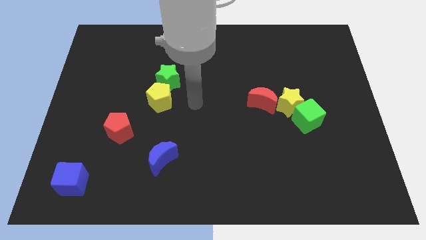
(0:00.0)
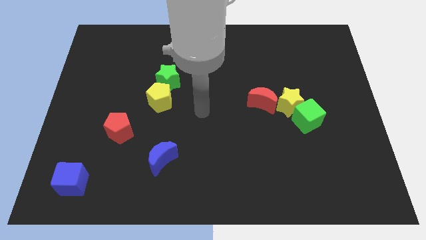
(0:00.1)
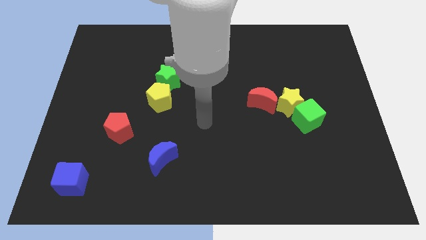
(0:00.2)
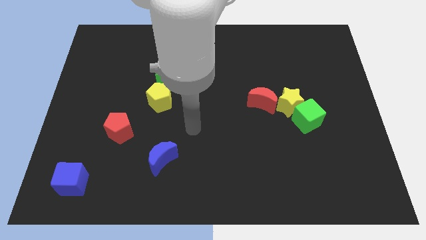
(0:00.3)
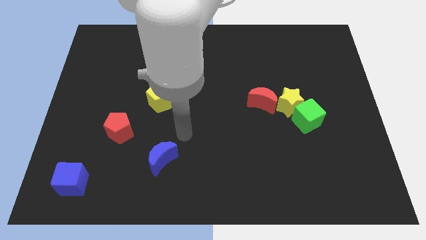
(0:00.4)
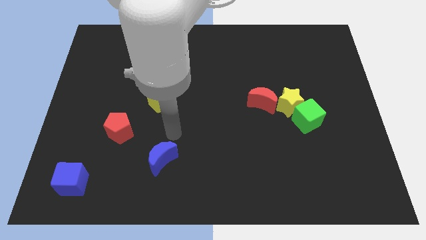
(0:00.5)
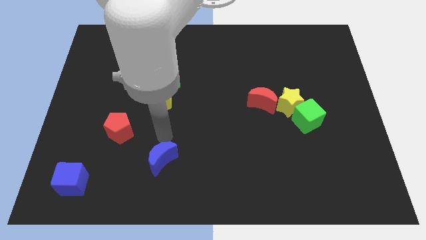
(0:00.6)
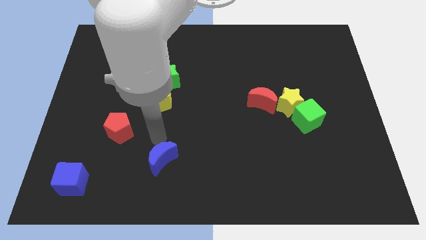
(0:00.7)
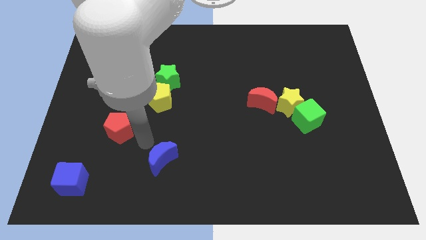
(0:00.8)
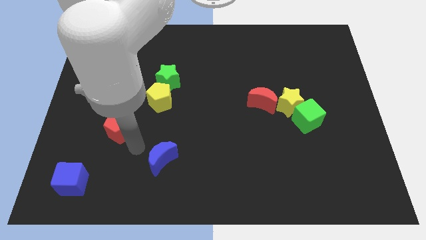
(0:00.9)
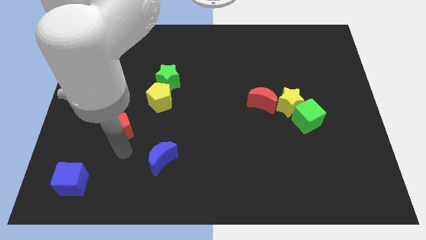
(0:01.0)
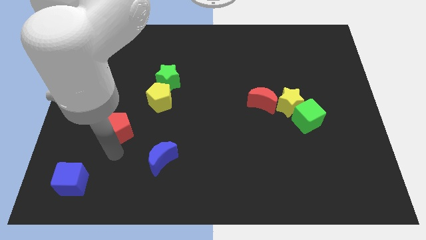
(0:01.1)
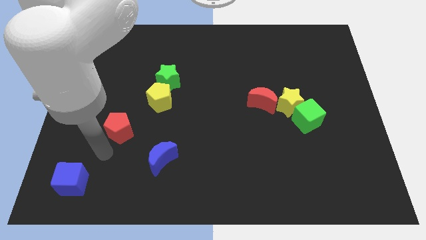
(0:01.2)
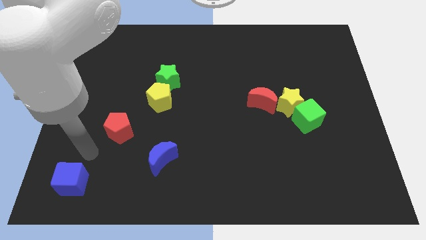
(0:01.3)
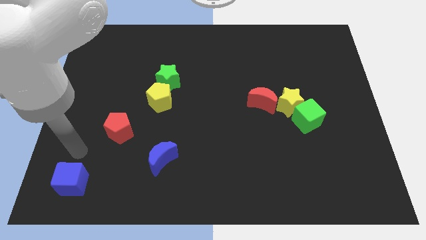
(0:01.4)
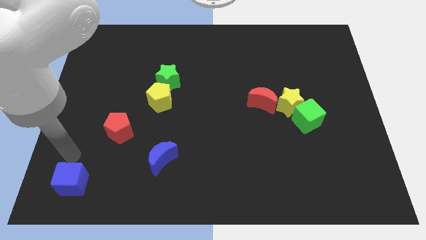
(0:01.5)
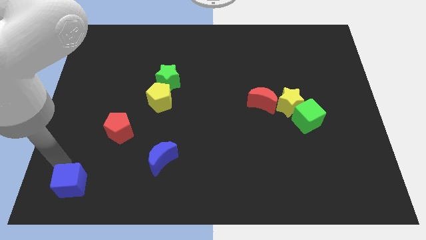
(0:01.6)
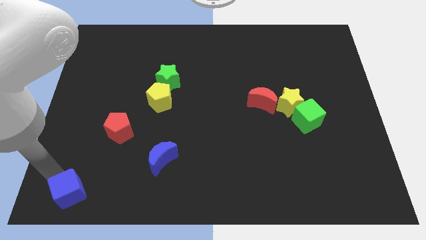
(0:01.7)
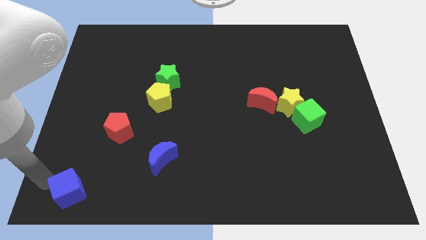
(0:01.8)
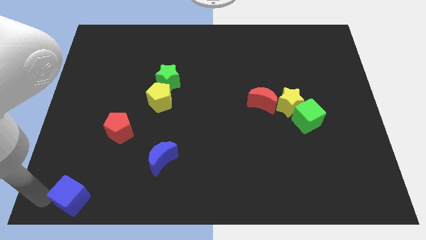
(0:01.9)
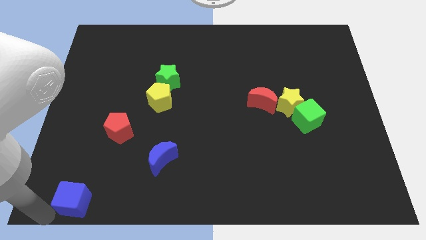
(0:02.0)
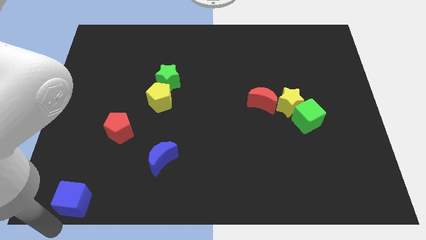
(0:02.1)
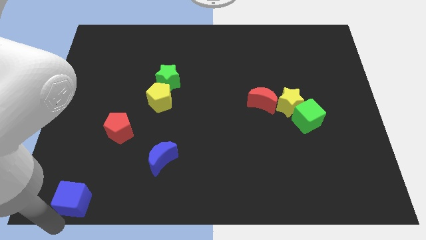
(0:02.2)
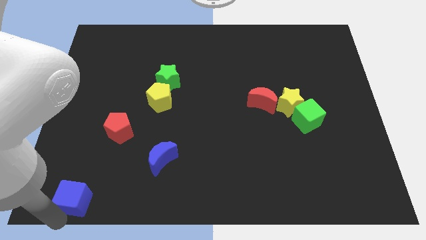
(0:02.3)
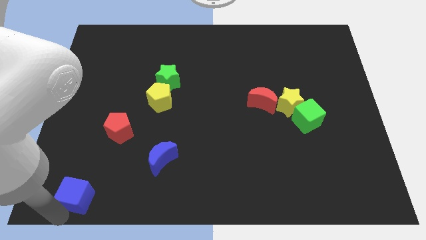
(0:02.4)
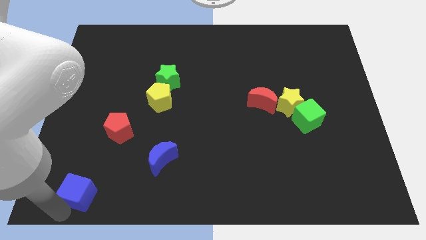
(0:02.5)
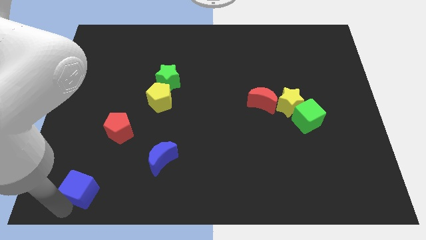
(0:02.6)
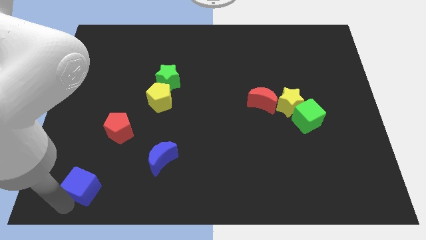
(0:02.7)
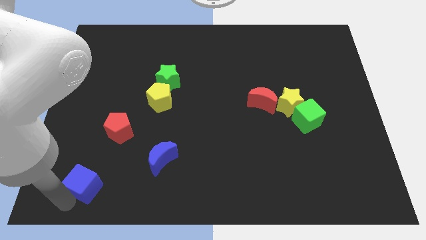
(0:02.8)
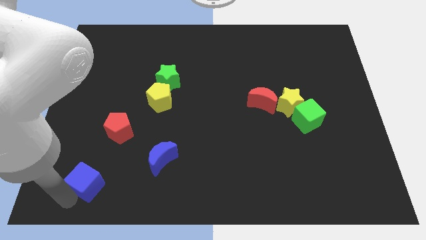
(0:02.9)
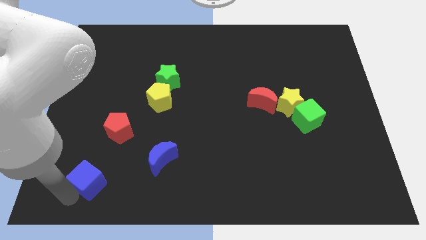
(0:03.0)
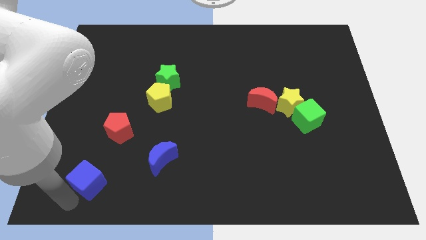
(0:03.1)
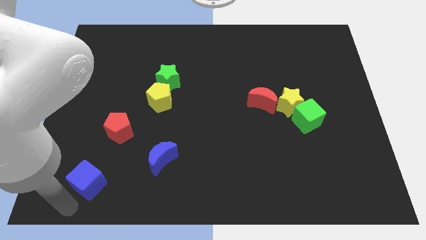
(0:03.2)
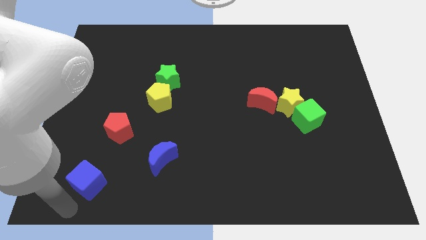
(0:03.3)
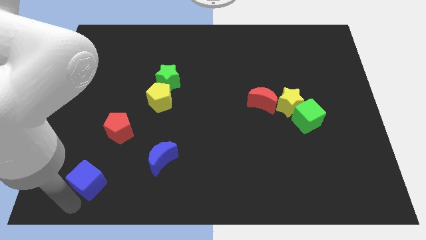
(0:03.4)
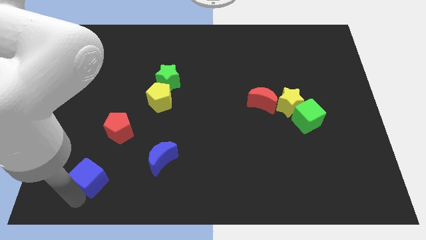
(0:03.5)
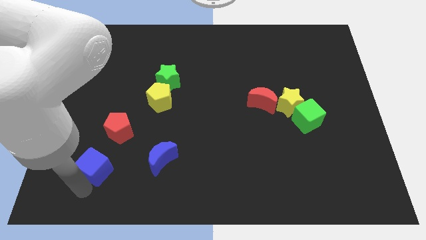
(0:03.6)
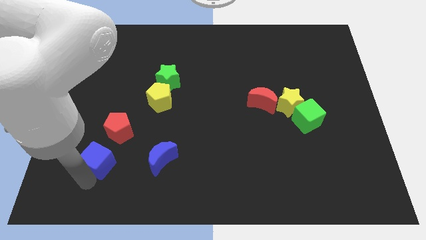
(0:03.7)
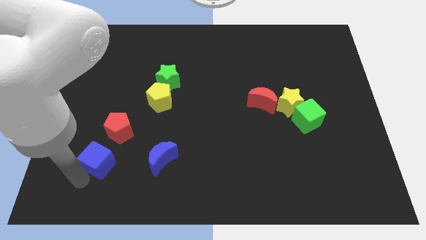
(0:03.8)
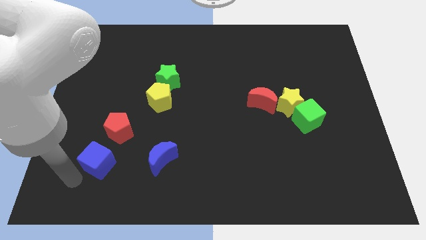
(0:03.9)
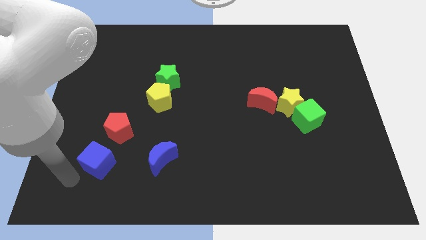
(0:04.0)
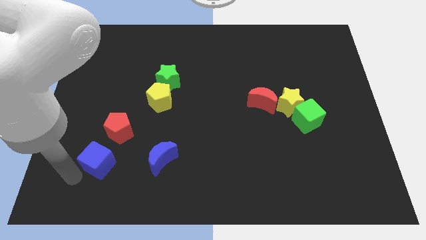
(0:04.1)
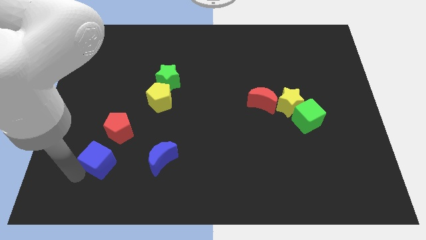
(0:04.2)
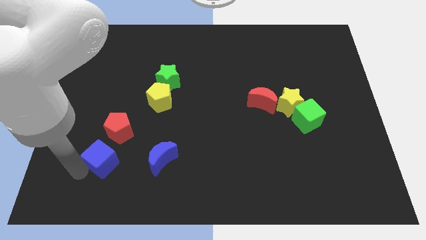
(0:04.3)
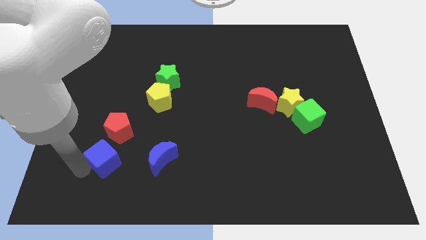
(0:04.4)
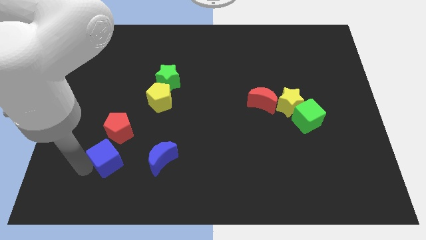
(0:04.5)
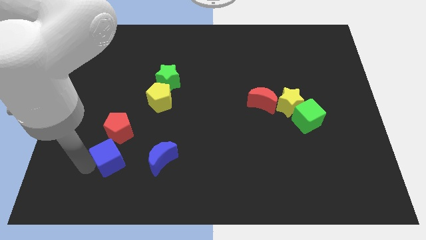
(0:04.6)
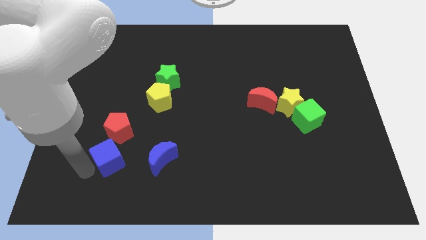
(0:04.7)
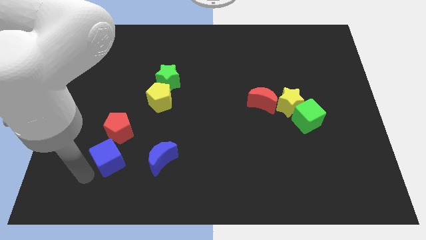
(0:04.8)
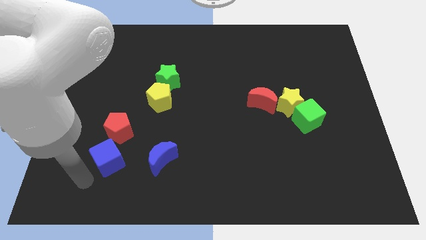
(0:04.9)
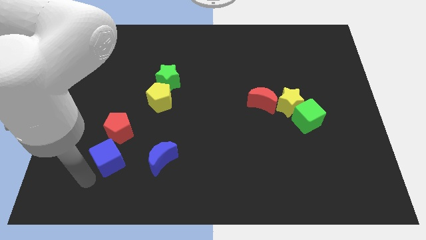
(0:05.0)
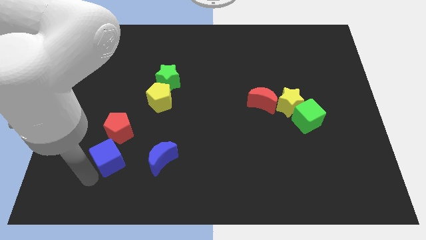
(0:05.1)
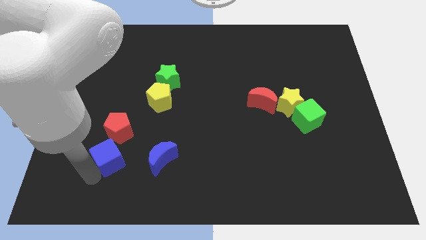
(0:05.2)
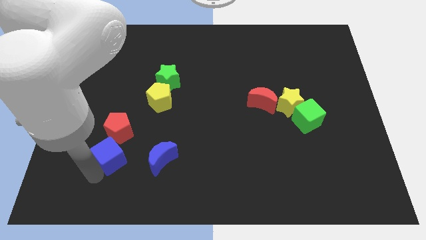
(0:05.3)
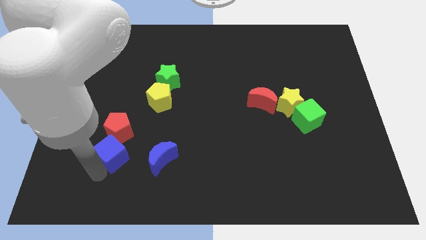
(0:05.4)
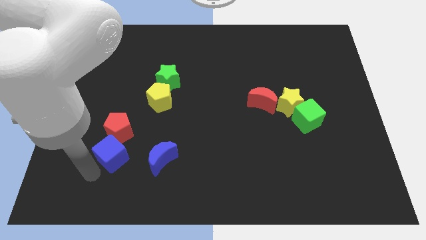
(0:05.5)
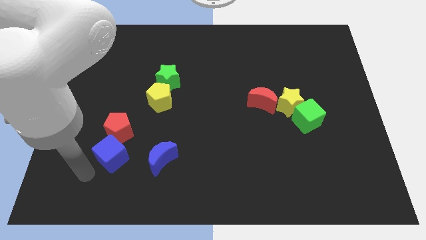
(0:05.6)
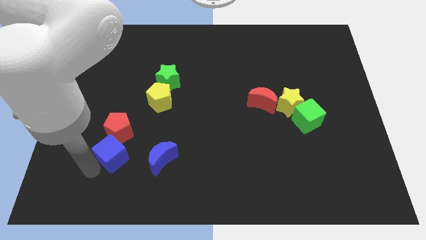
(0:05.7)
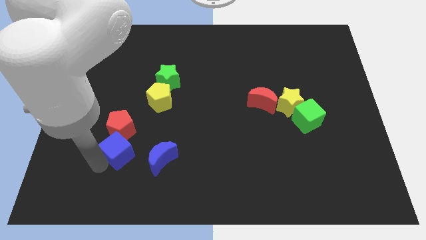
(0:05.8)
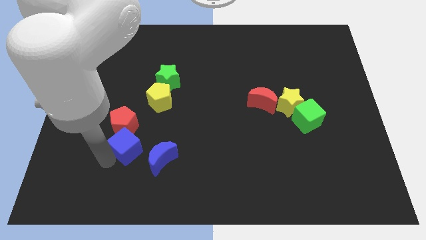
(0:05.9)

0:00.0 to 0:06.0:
push the blue cube to the top left of the blue moon

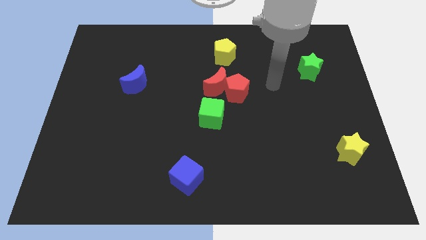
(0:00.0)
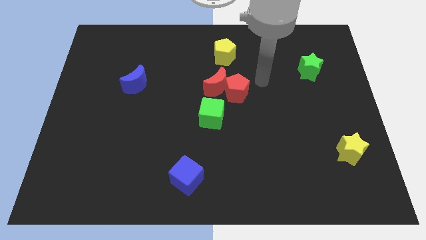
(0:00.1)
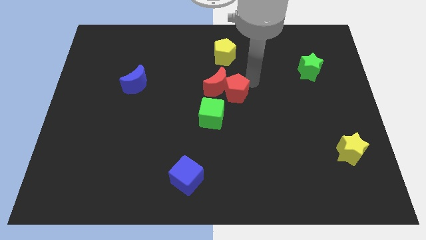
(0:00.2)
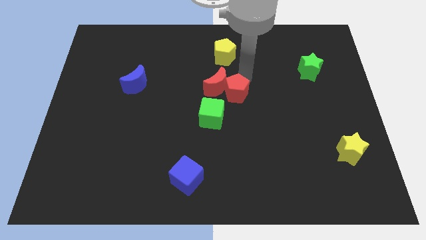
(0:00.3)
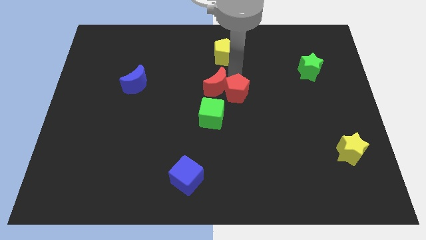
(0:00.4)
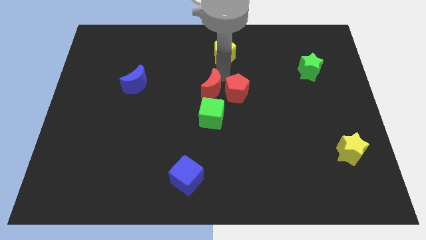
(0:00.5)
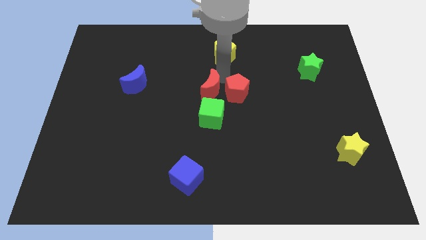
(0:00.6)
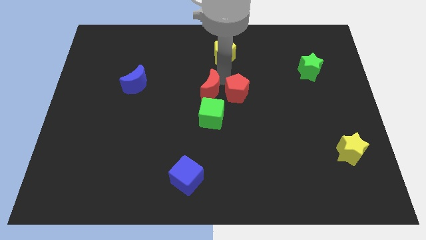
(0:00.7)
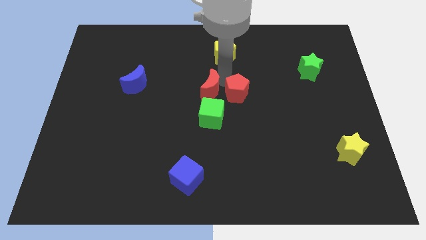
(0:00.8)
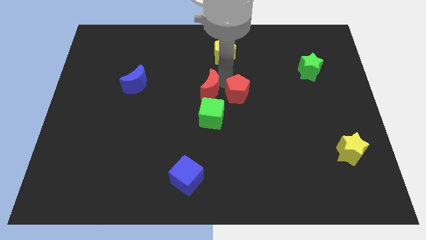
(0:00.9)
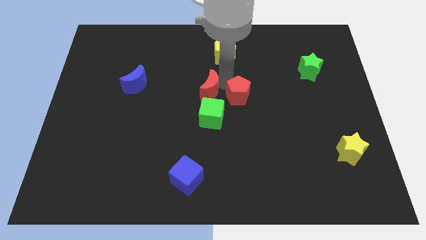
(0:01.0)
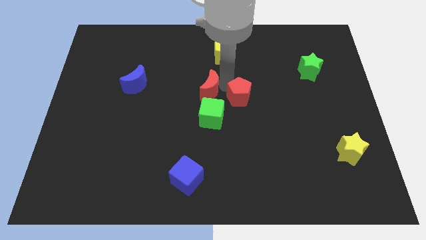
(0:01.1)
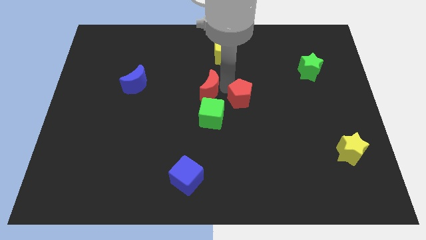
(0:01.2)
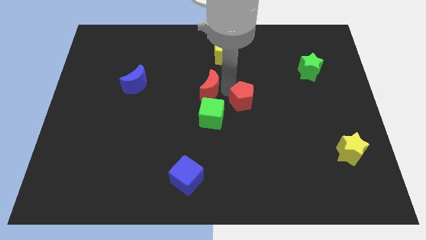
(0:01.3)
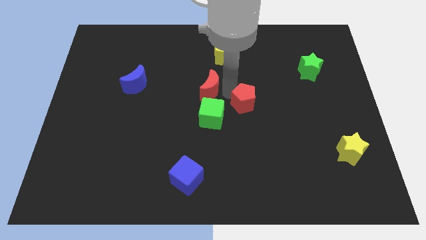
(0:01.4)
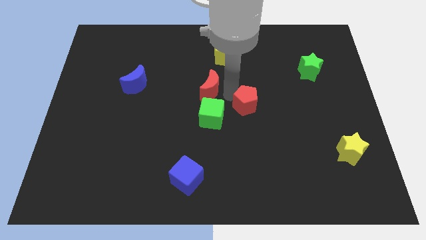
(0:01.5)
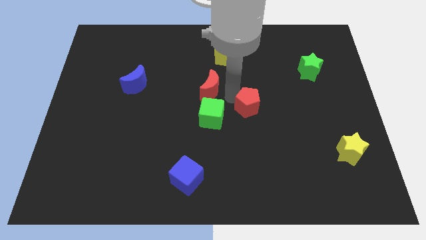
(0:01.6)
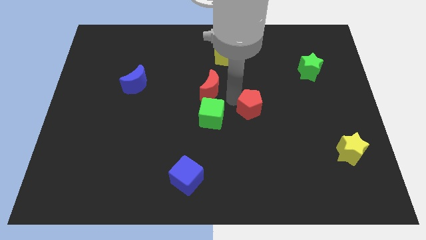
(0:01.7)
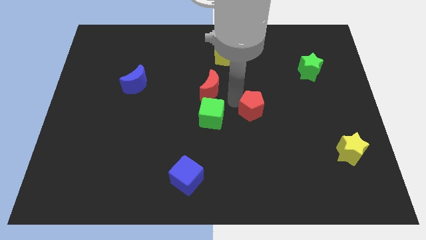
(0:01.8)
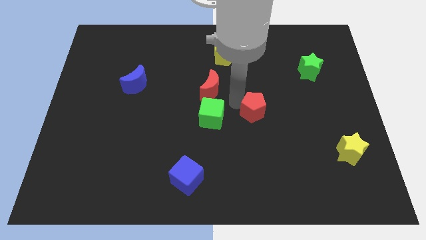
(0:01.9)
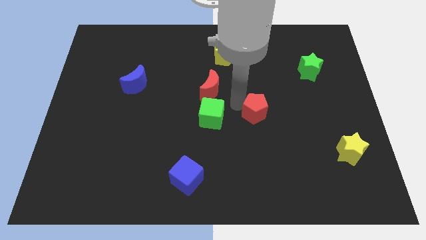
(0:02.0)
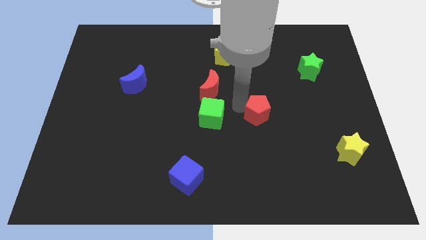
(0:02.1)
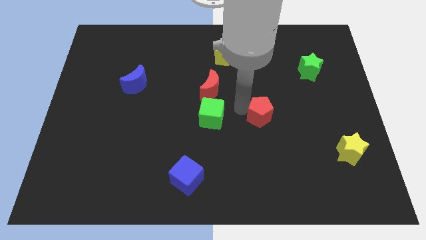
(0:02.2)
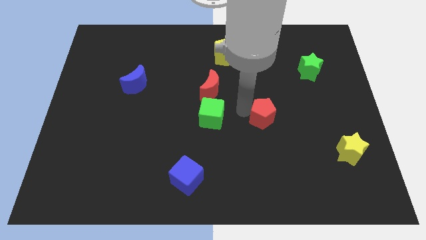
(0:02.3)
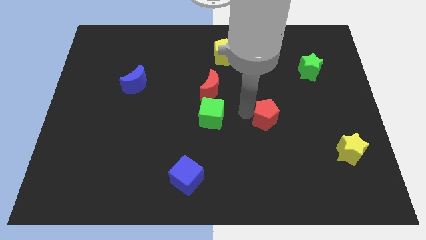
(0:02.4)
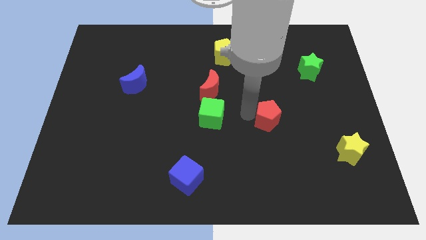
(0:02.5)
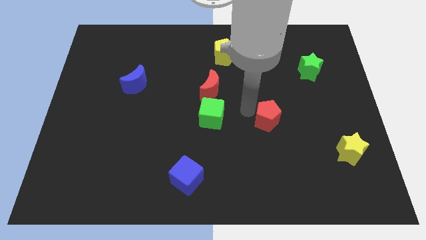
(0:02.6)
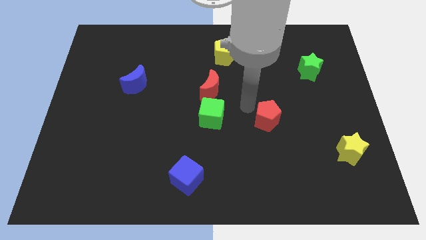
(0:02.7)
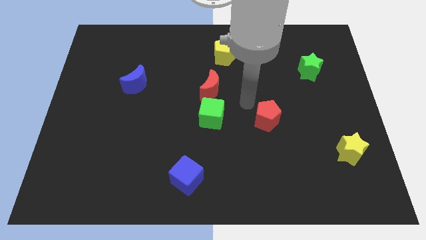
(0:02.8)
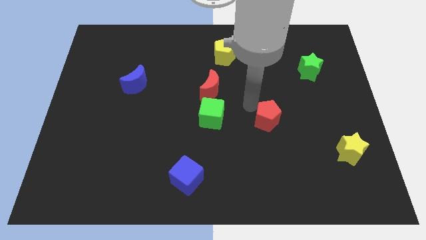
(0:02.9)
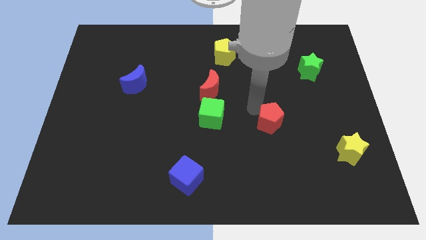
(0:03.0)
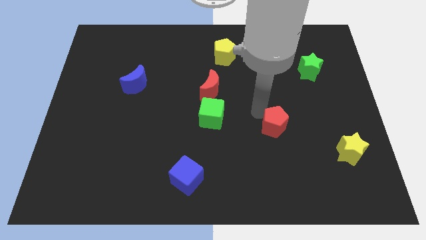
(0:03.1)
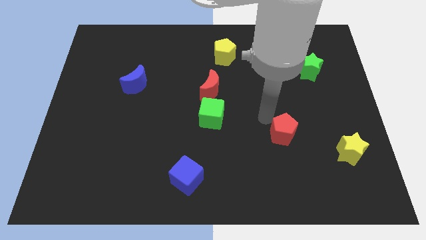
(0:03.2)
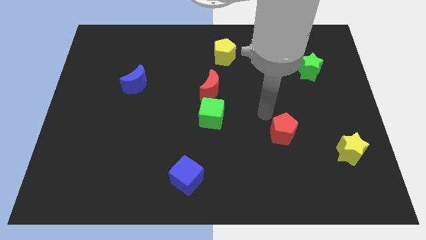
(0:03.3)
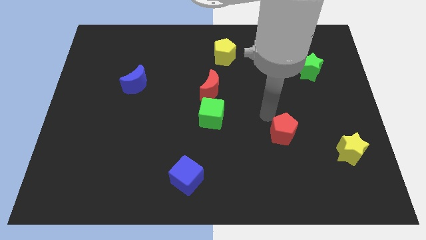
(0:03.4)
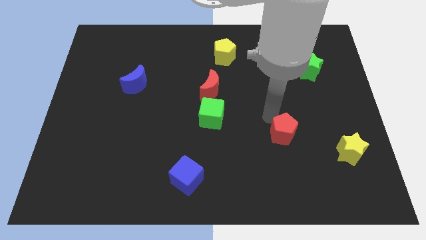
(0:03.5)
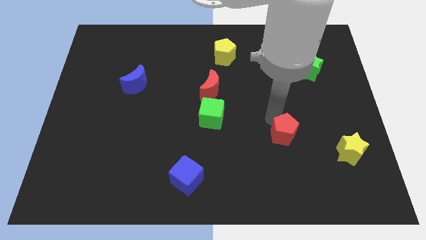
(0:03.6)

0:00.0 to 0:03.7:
slide the red pentagon left of the yellow star
